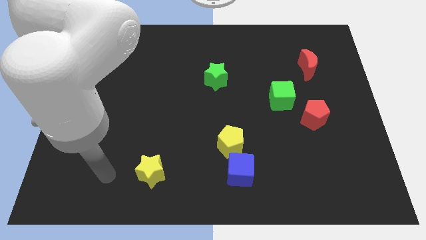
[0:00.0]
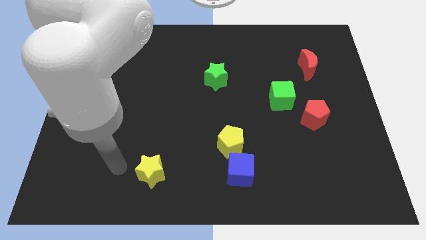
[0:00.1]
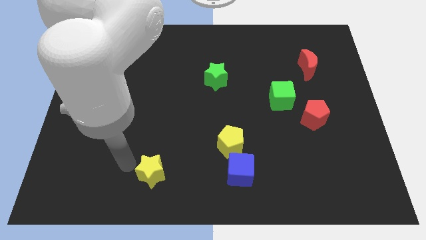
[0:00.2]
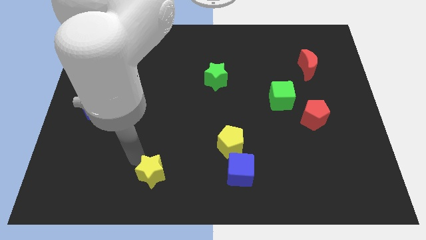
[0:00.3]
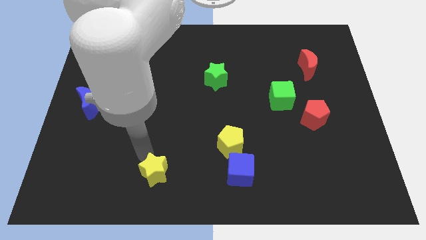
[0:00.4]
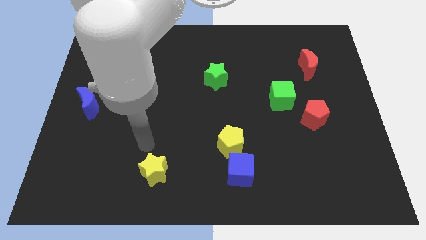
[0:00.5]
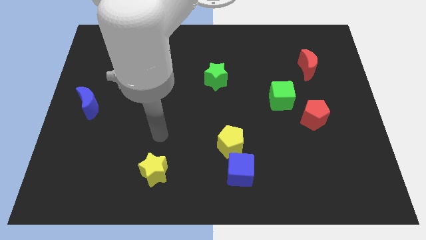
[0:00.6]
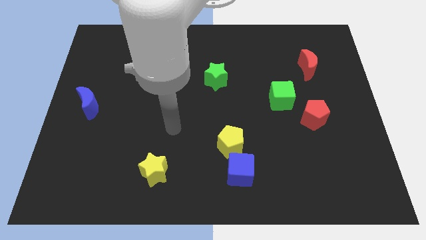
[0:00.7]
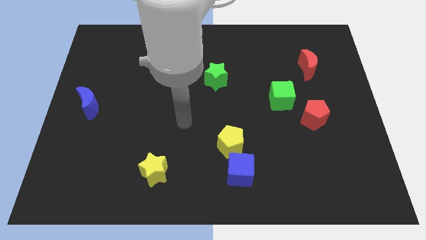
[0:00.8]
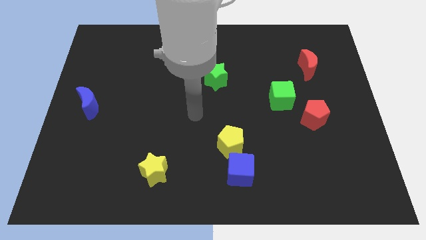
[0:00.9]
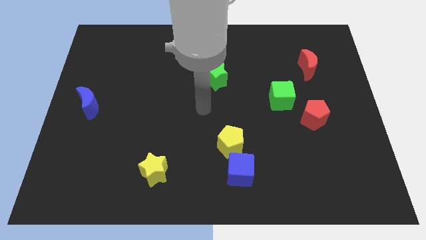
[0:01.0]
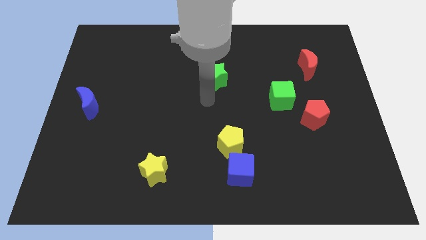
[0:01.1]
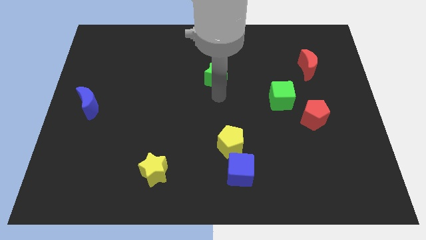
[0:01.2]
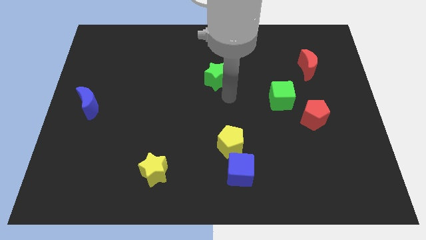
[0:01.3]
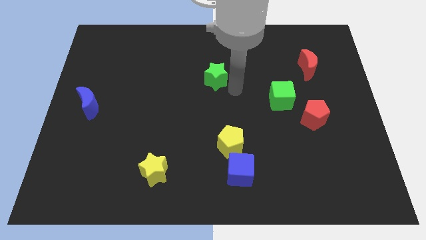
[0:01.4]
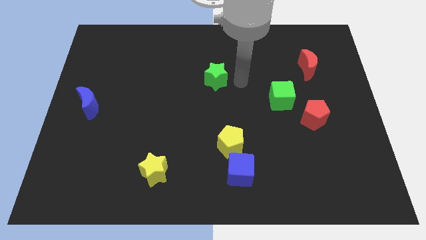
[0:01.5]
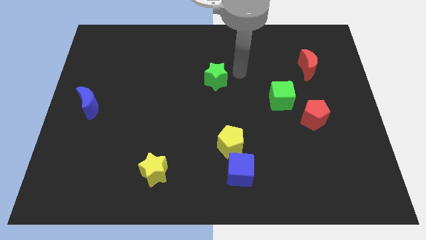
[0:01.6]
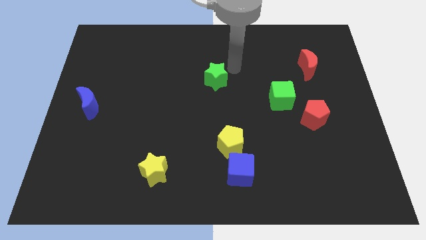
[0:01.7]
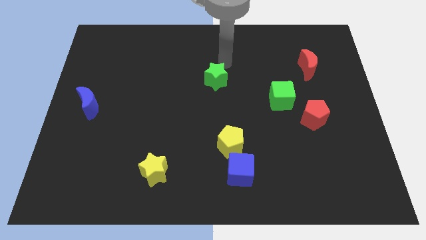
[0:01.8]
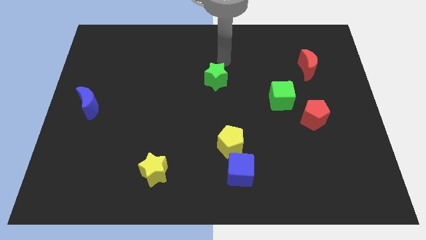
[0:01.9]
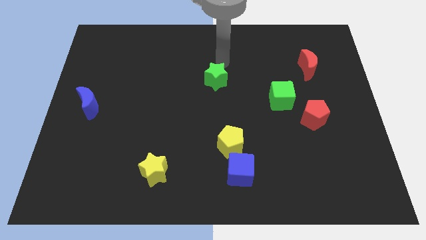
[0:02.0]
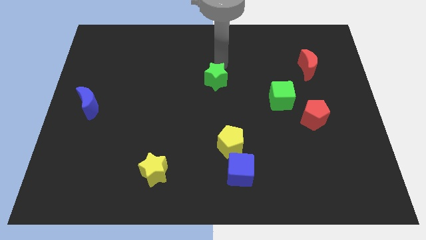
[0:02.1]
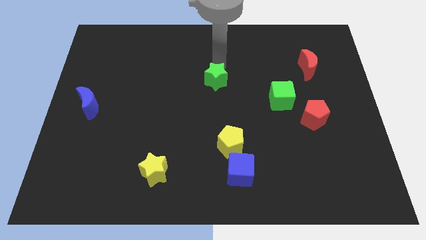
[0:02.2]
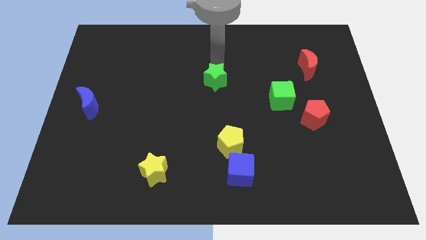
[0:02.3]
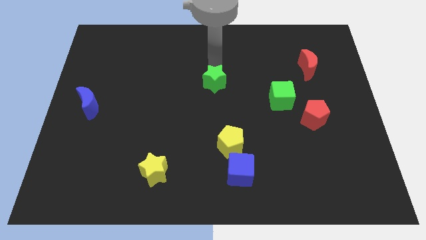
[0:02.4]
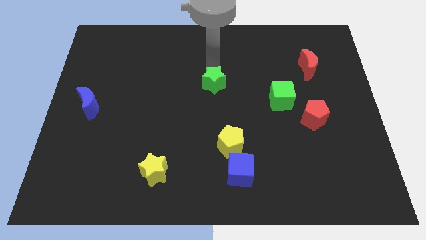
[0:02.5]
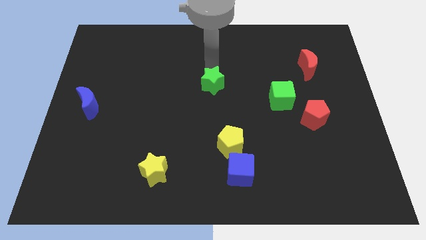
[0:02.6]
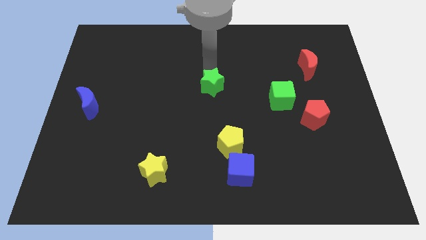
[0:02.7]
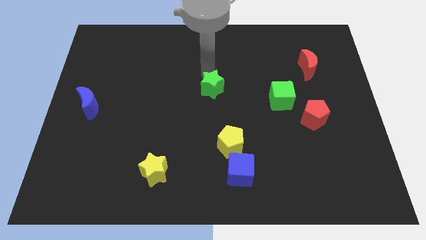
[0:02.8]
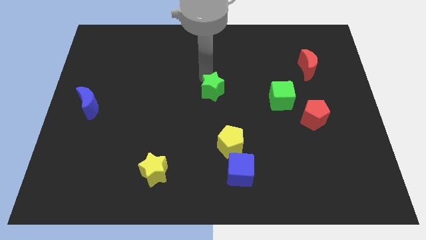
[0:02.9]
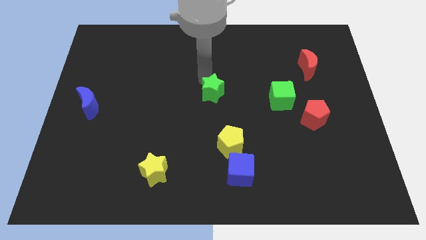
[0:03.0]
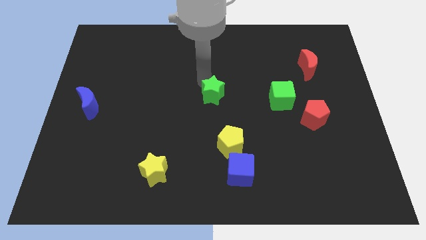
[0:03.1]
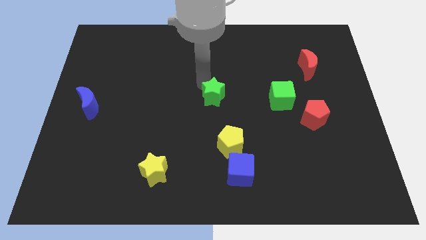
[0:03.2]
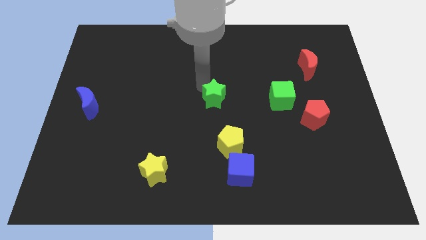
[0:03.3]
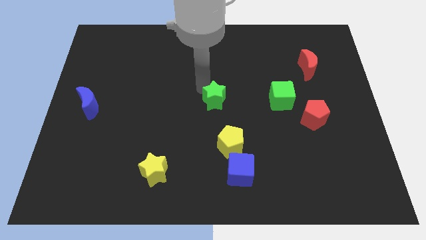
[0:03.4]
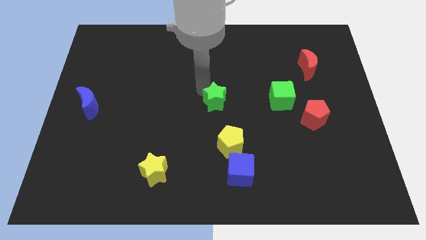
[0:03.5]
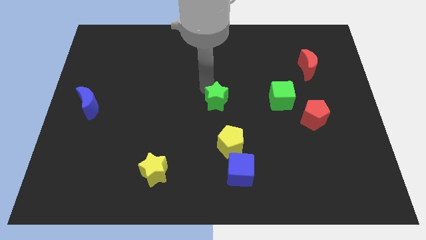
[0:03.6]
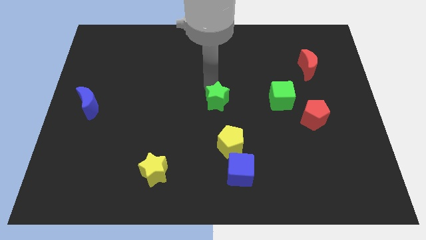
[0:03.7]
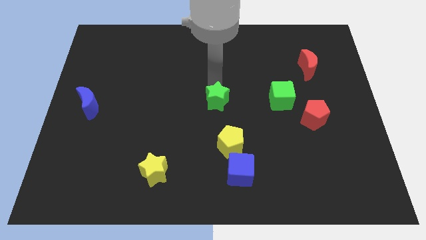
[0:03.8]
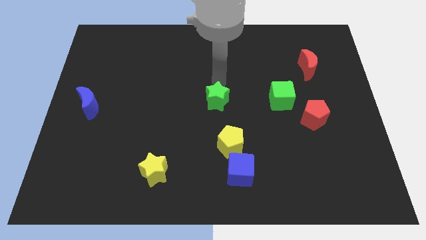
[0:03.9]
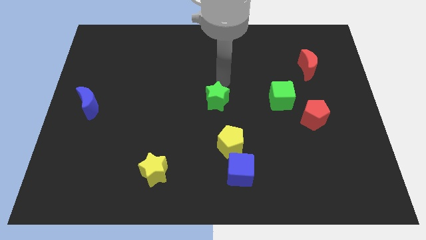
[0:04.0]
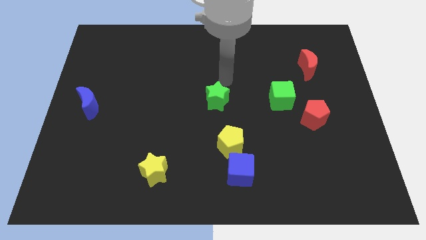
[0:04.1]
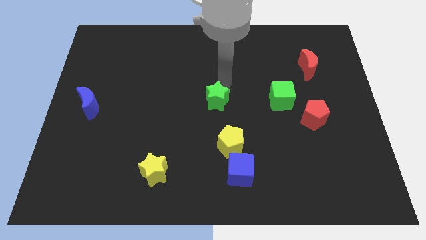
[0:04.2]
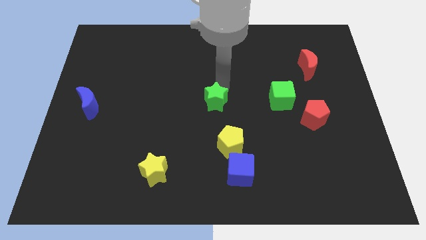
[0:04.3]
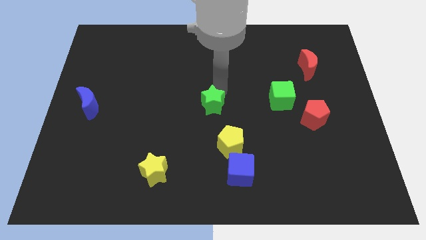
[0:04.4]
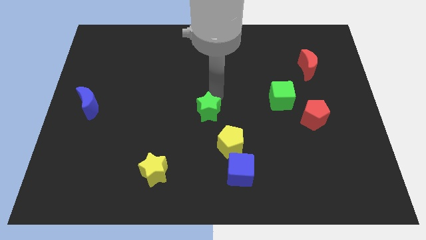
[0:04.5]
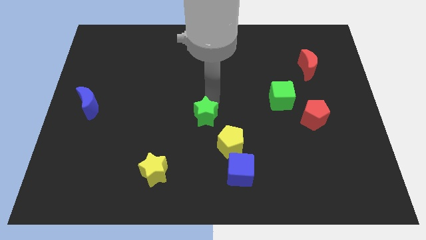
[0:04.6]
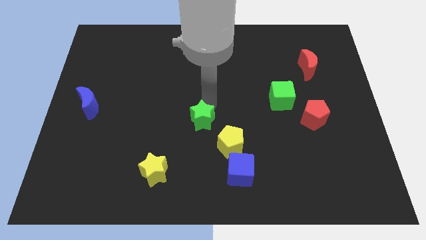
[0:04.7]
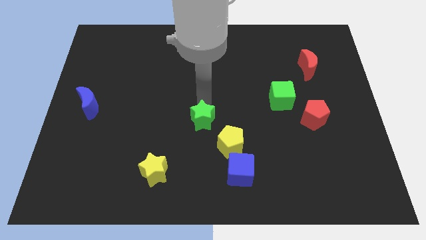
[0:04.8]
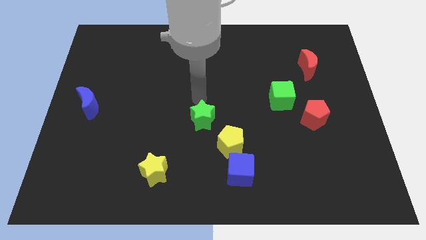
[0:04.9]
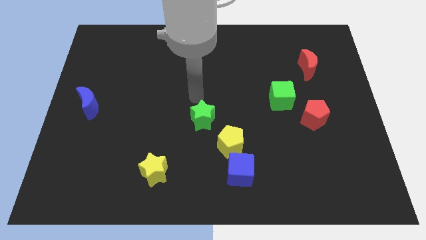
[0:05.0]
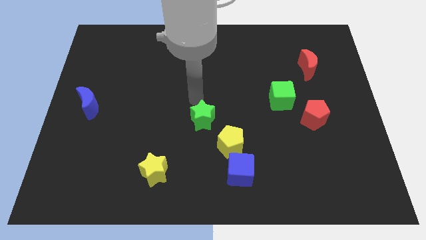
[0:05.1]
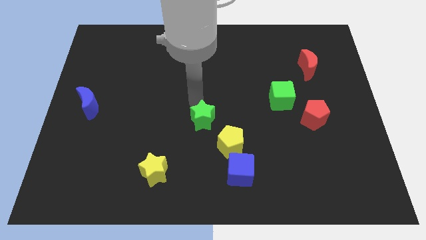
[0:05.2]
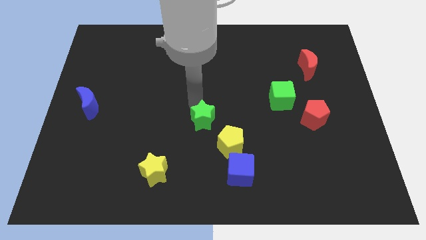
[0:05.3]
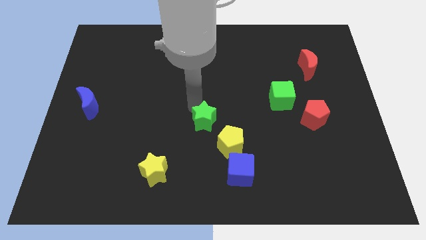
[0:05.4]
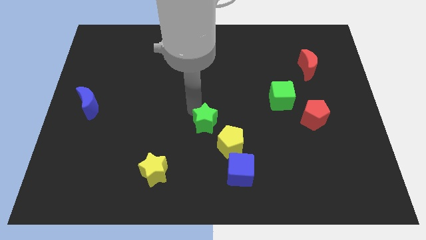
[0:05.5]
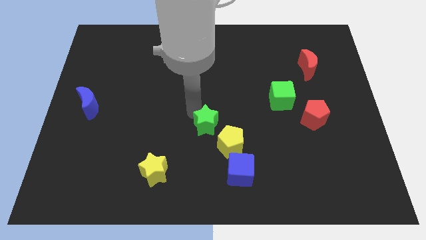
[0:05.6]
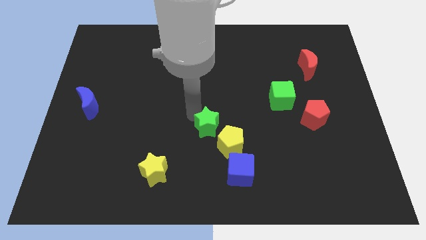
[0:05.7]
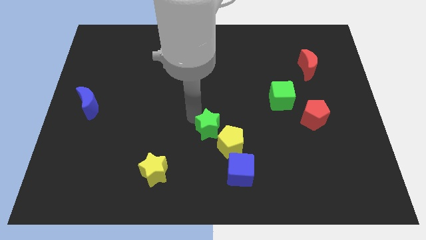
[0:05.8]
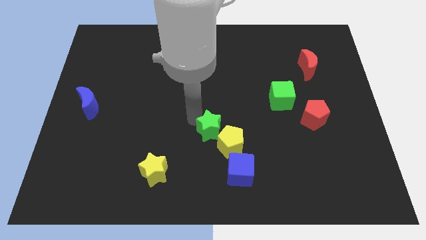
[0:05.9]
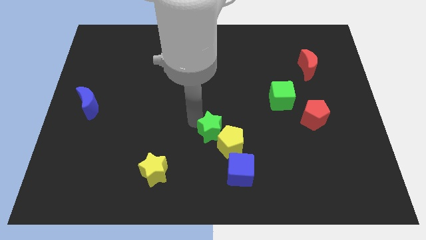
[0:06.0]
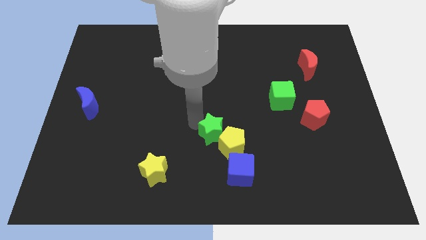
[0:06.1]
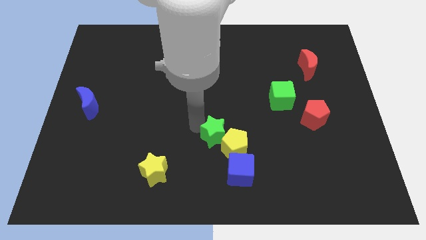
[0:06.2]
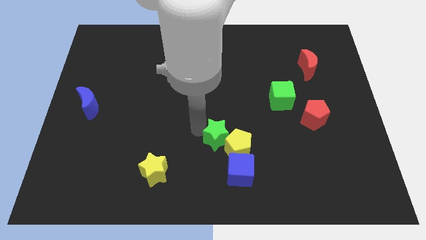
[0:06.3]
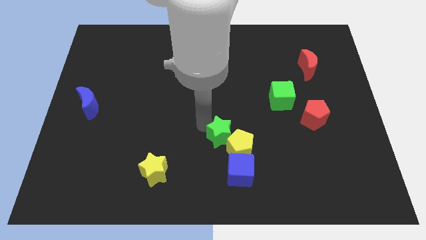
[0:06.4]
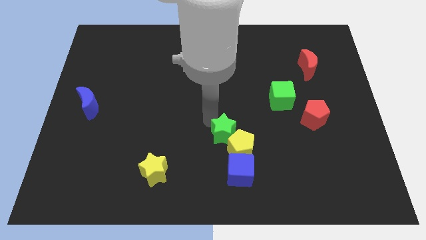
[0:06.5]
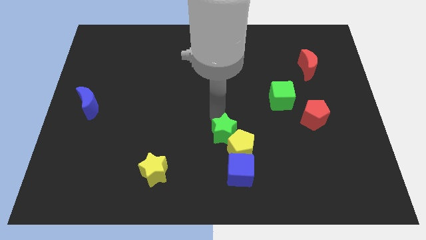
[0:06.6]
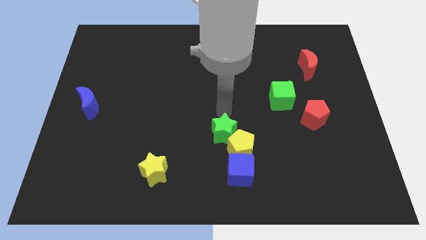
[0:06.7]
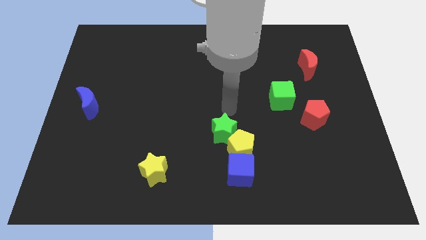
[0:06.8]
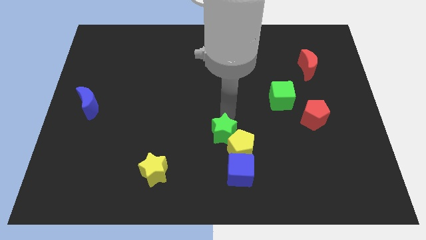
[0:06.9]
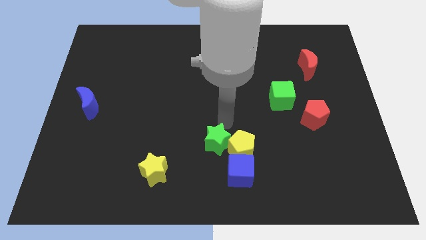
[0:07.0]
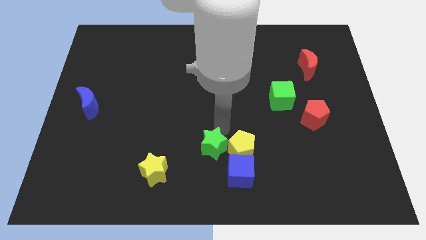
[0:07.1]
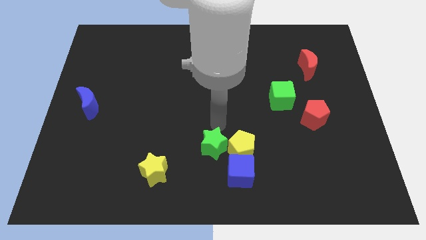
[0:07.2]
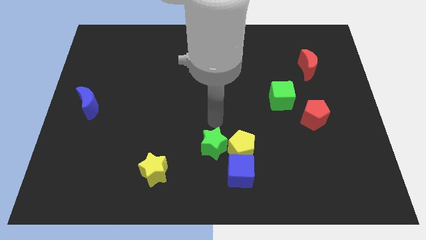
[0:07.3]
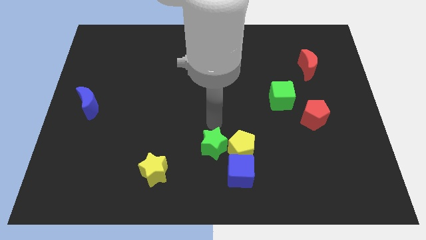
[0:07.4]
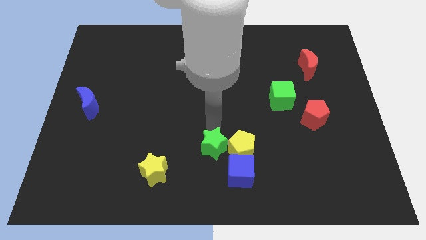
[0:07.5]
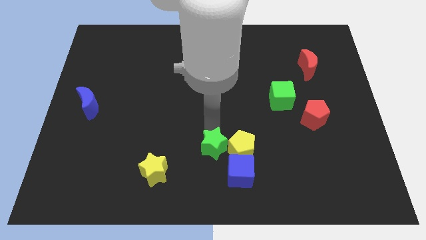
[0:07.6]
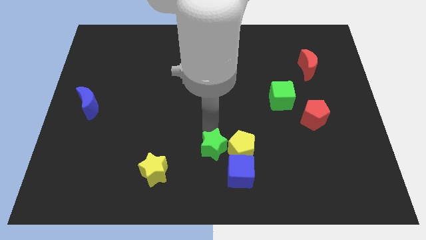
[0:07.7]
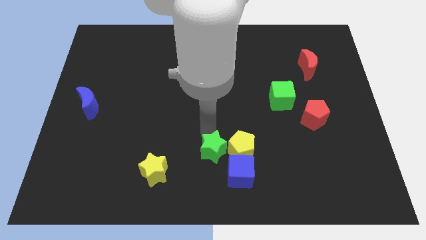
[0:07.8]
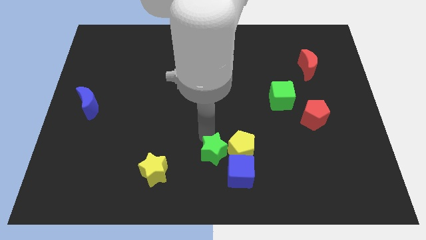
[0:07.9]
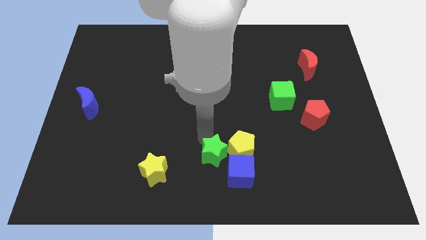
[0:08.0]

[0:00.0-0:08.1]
slide the green star to the bottom
